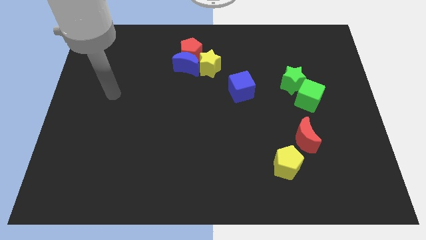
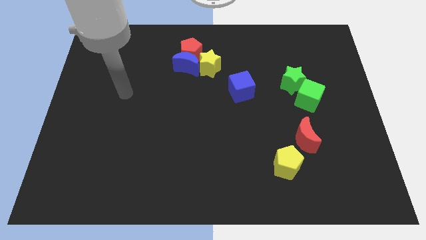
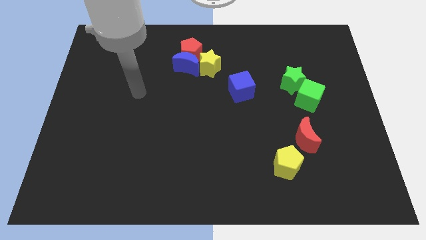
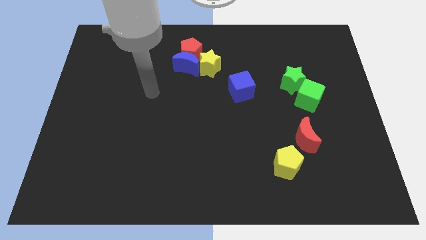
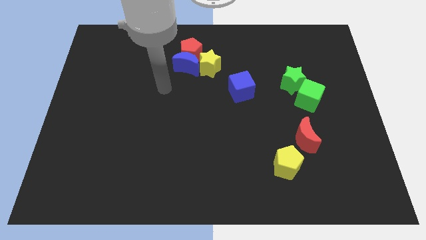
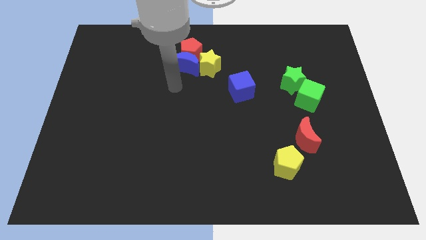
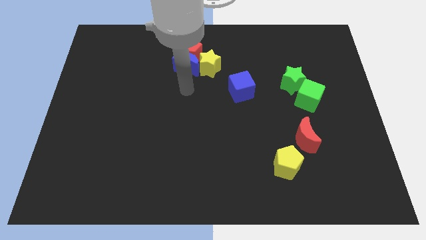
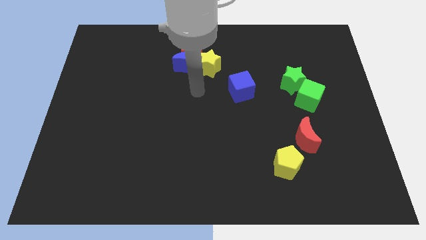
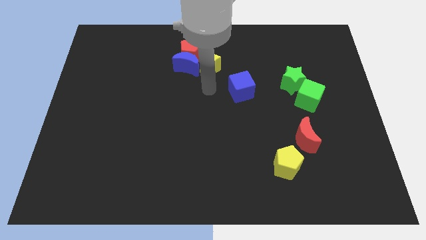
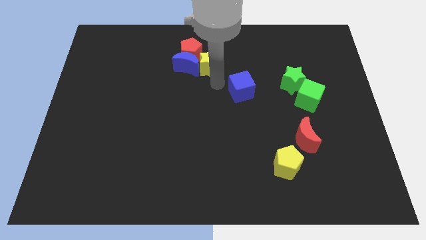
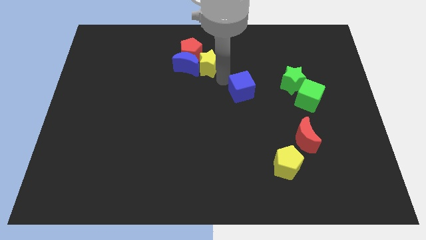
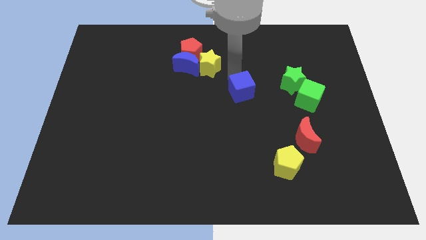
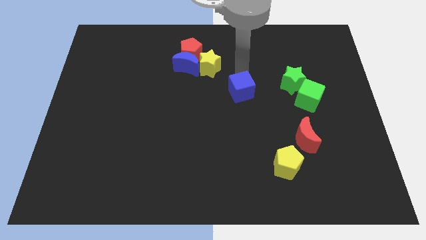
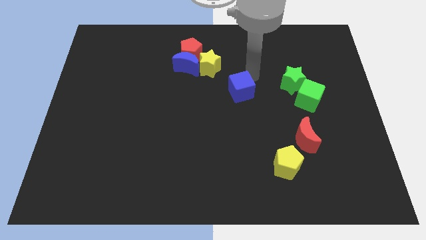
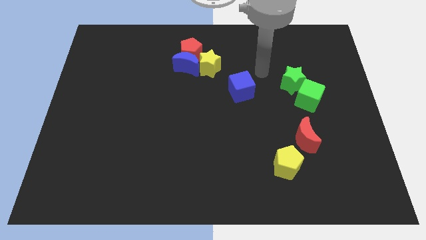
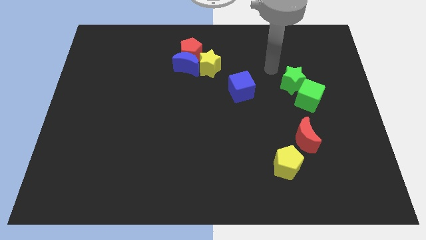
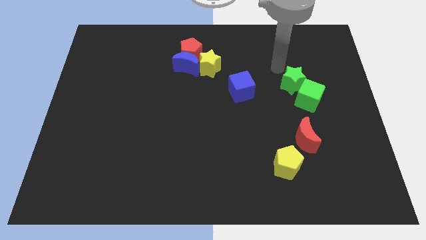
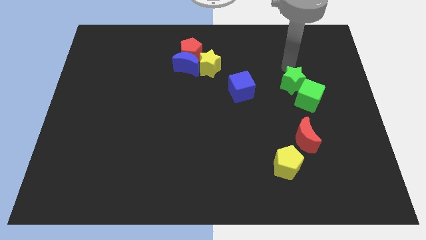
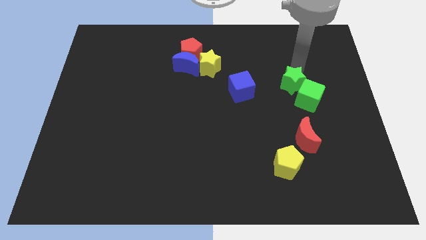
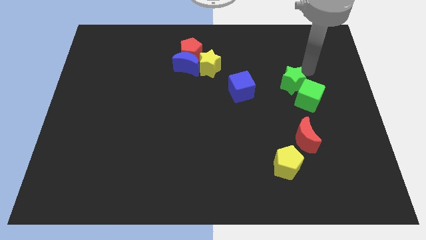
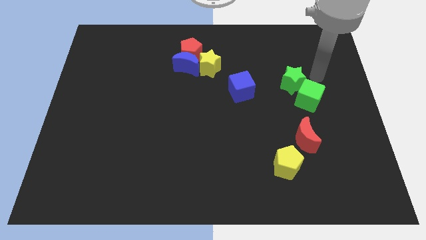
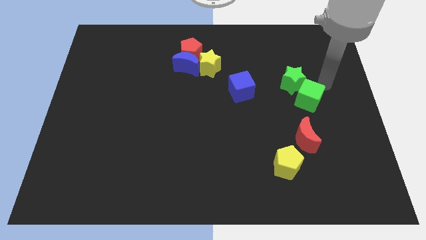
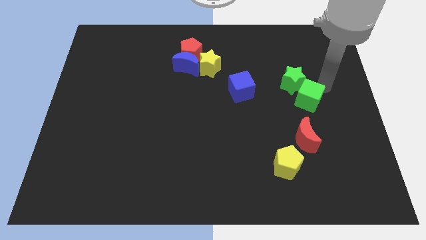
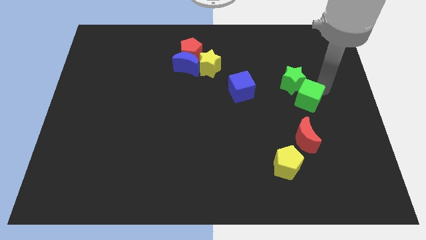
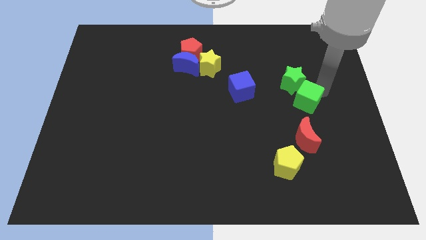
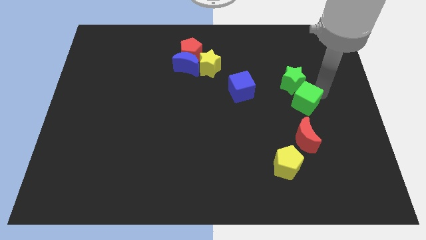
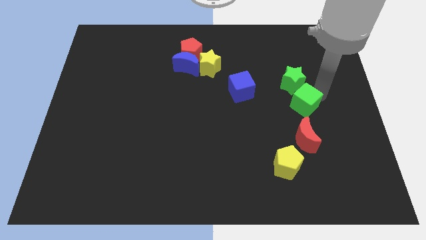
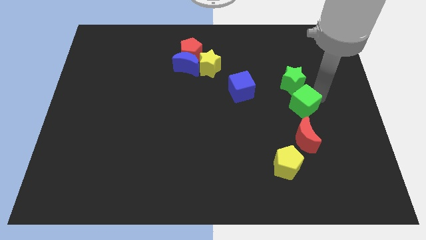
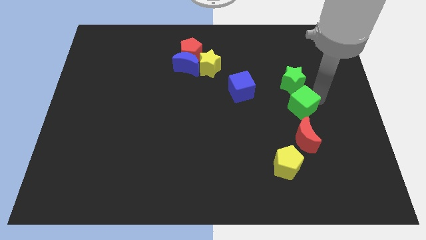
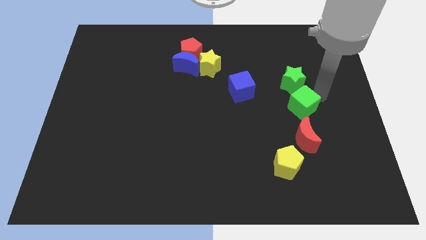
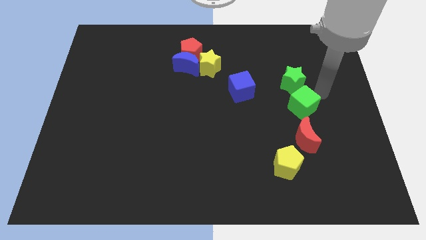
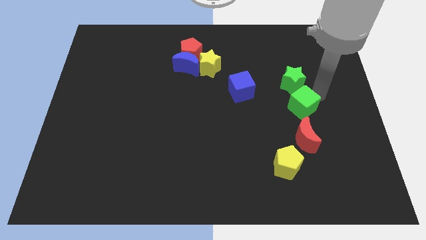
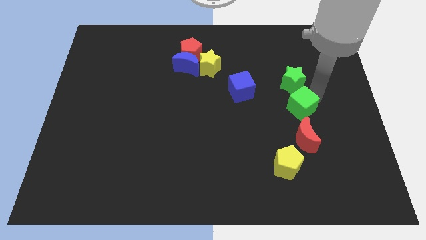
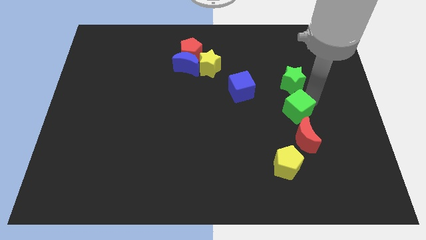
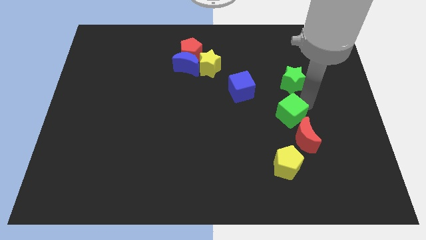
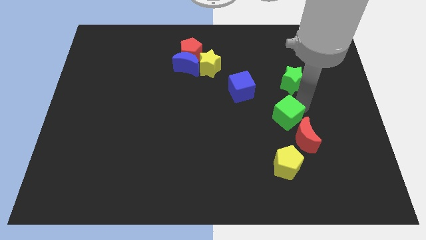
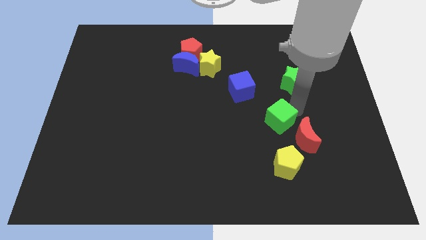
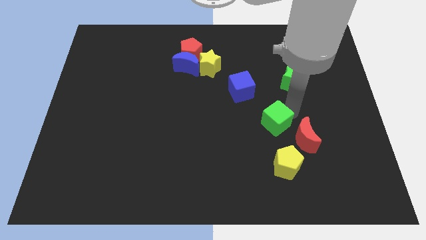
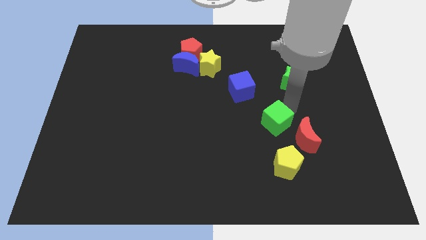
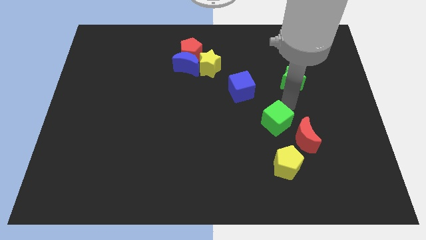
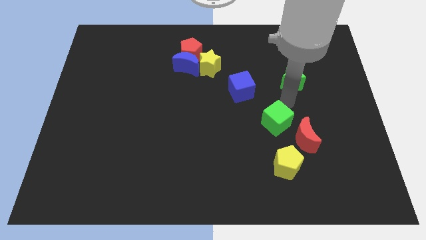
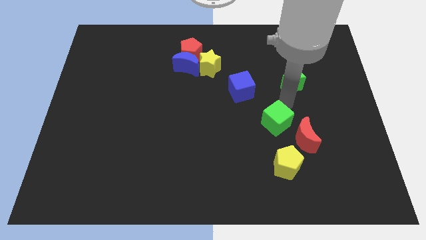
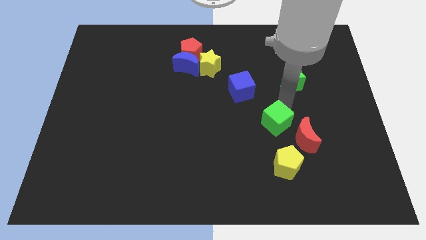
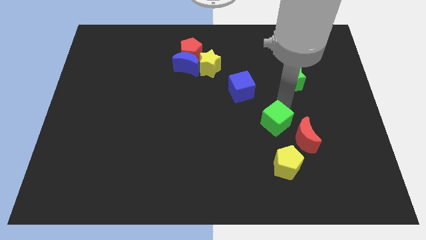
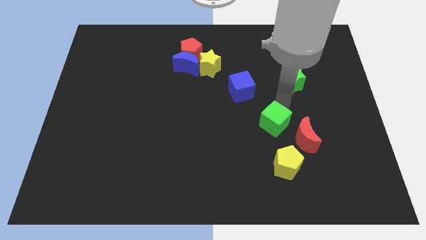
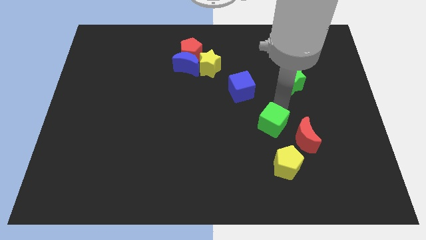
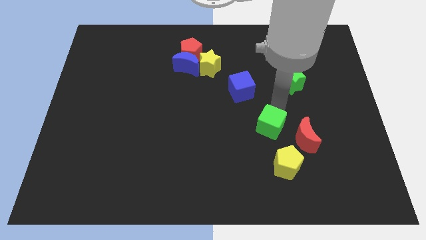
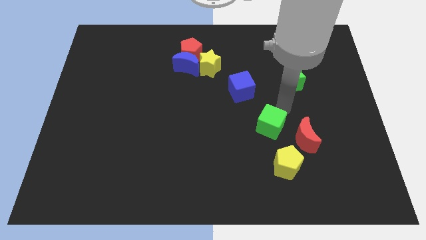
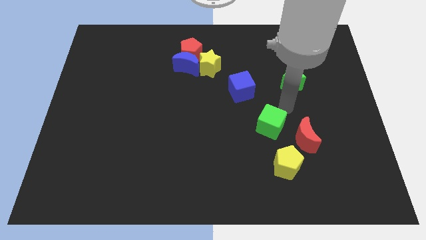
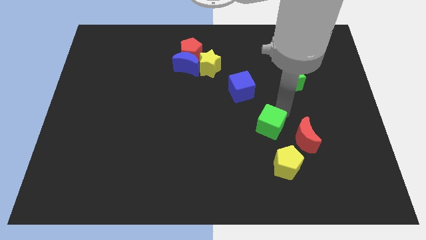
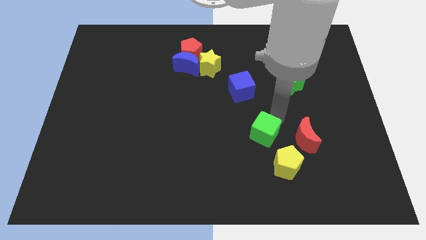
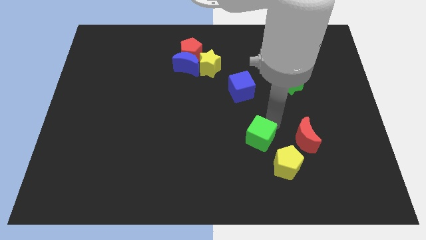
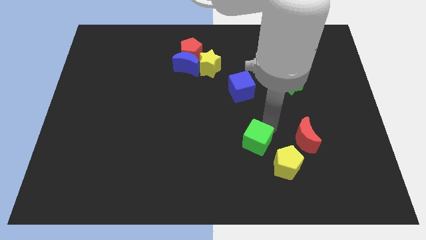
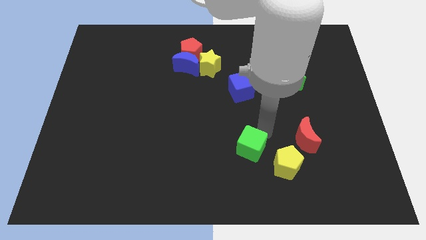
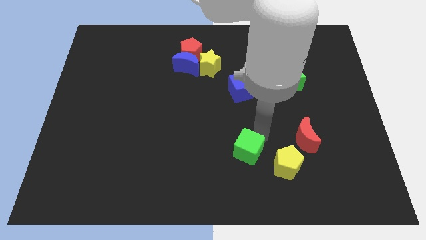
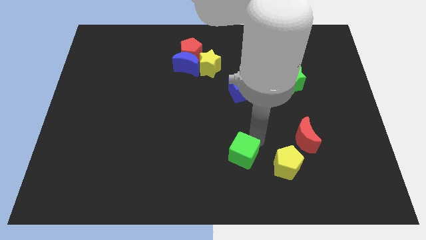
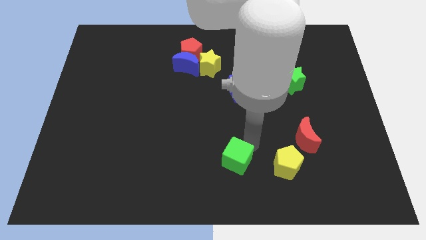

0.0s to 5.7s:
slide the green cube to the bottom side

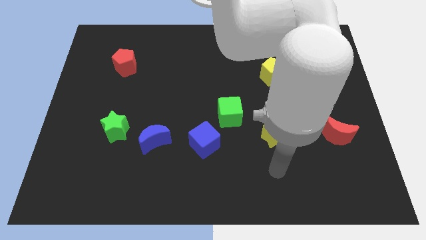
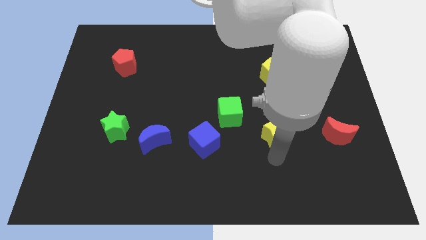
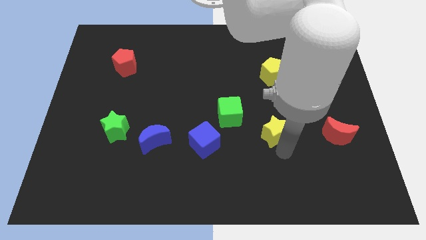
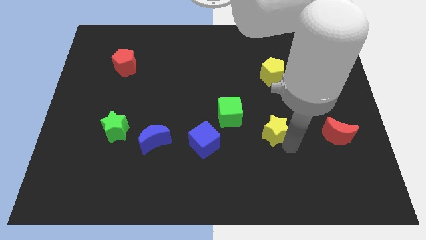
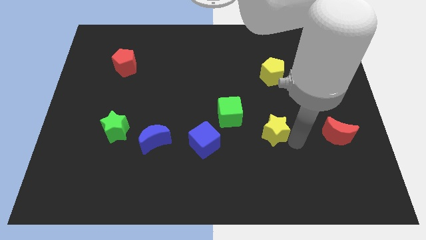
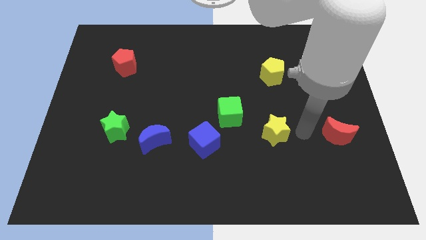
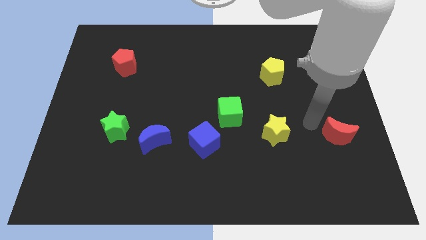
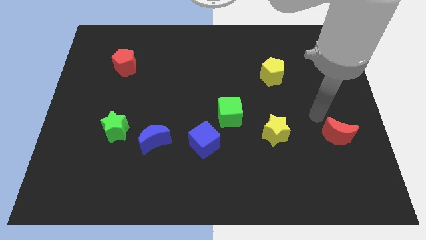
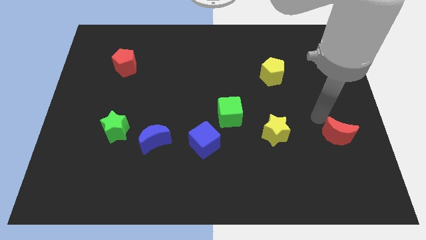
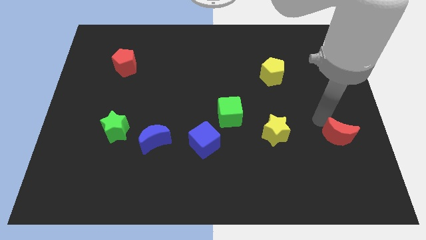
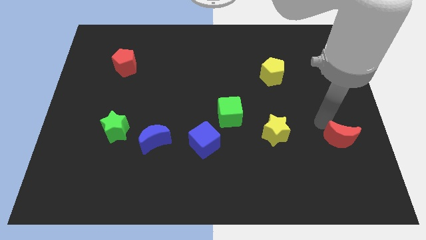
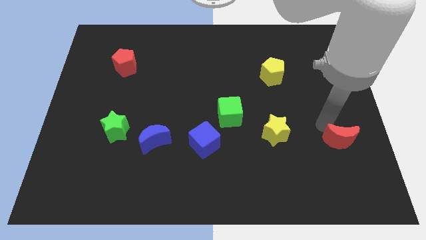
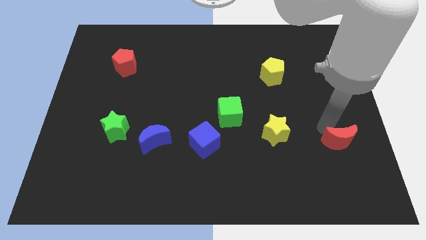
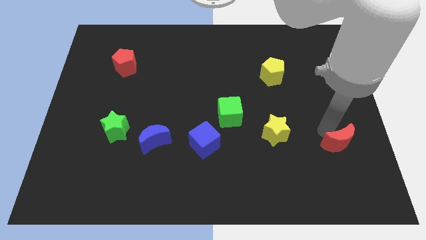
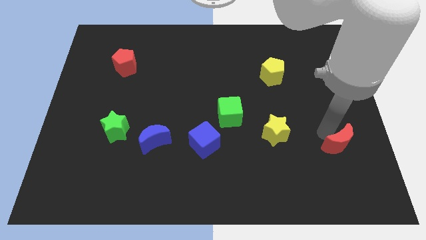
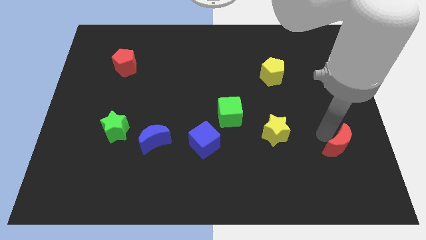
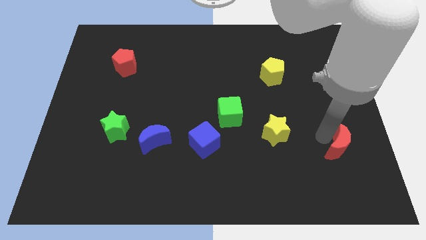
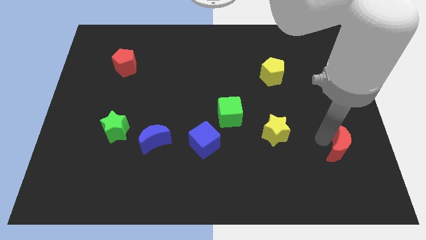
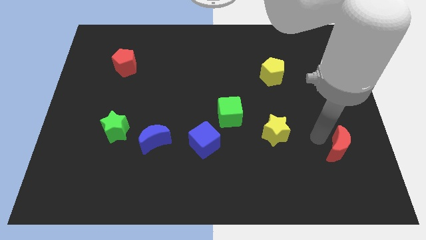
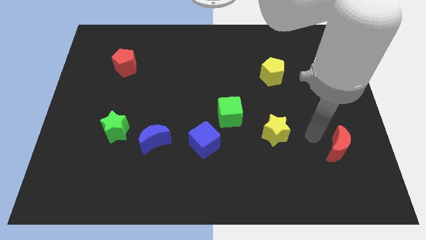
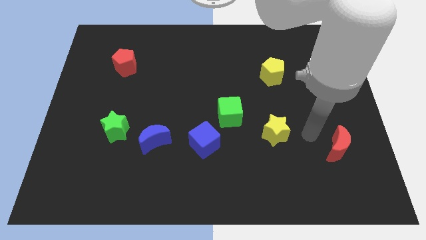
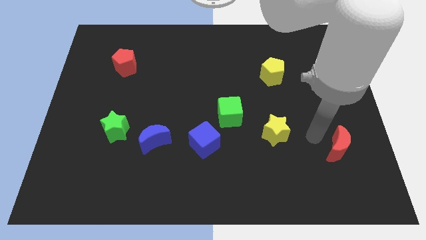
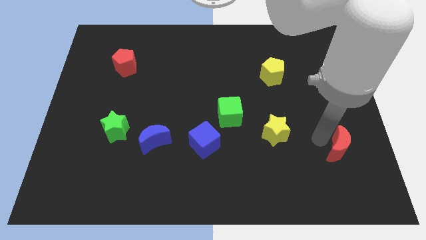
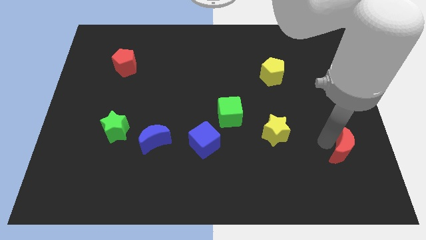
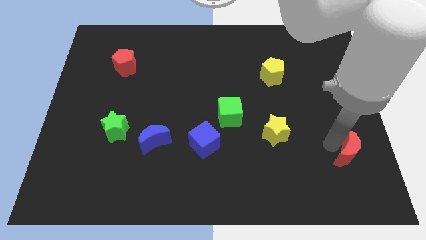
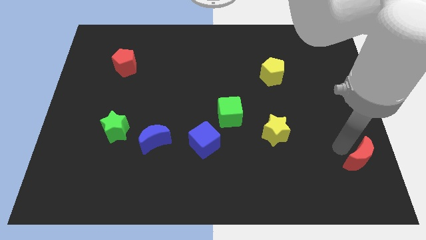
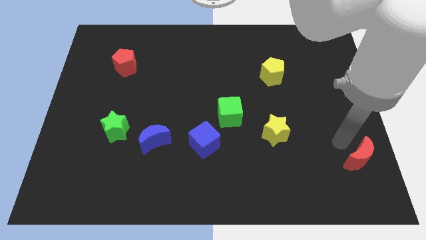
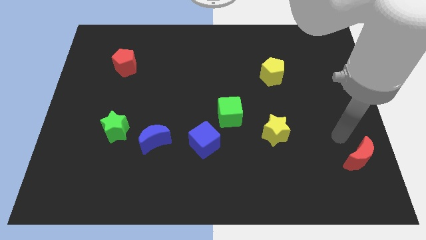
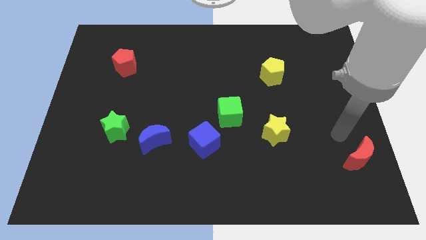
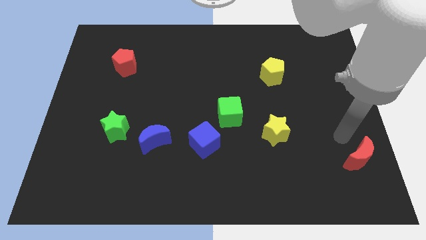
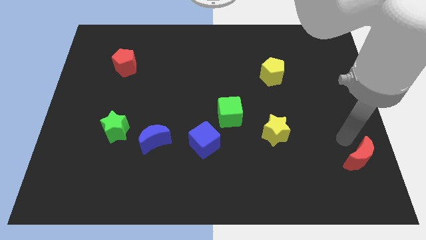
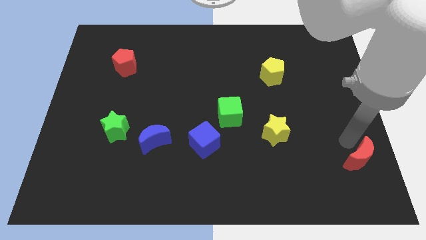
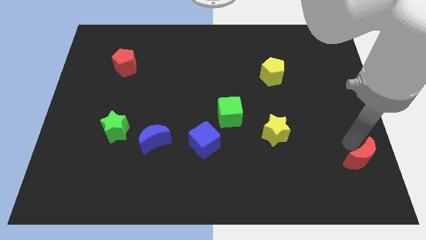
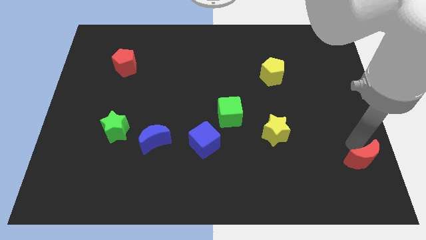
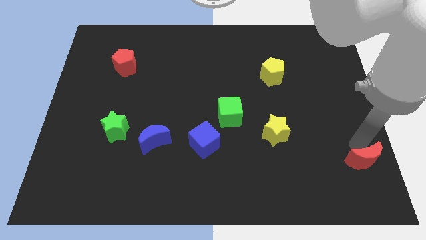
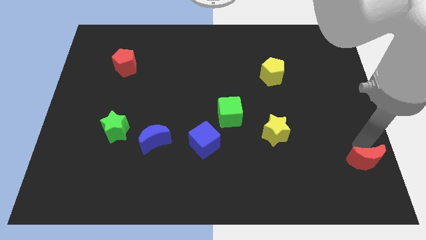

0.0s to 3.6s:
put the red moon to the bottom right corner
